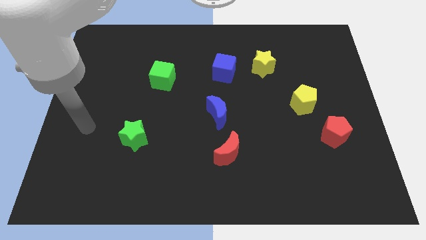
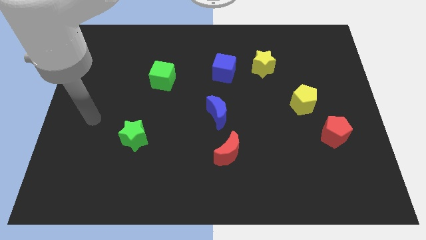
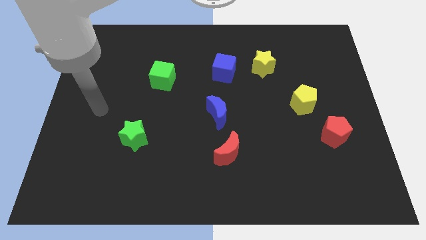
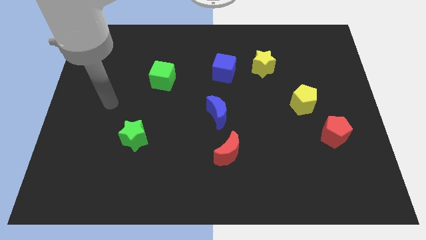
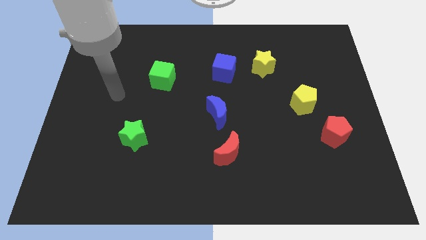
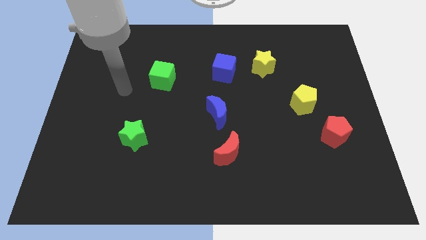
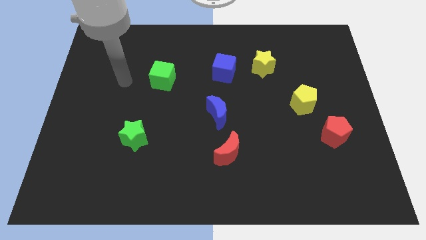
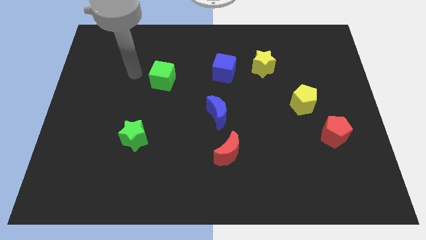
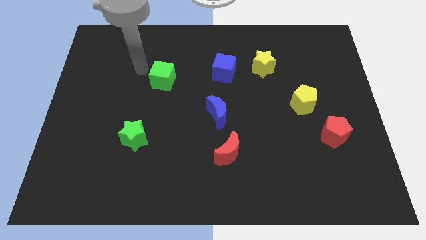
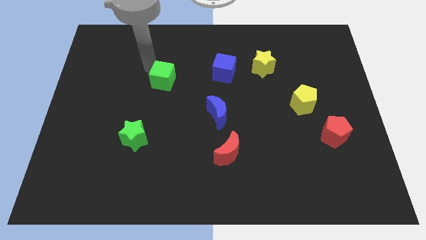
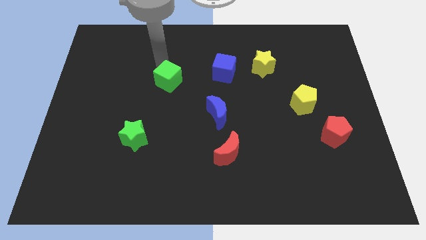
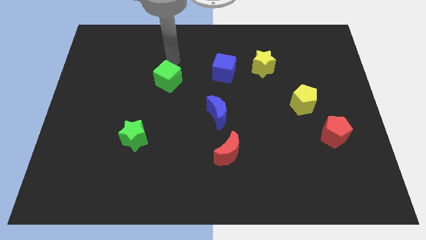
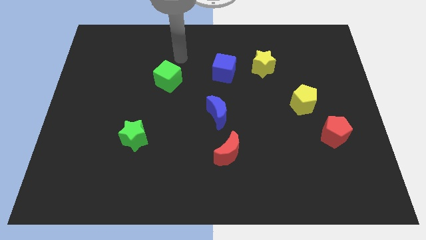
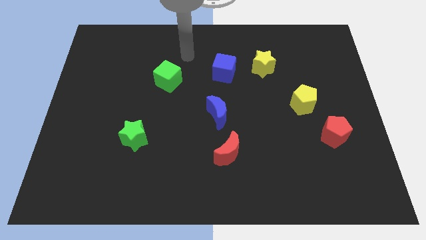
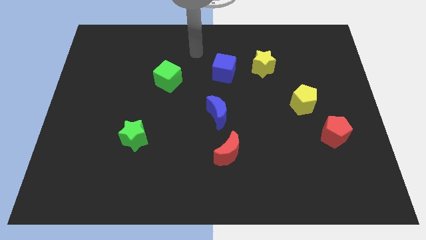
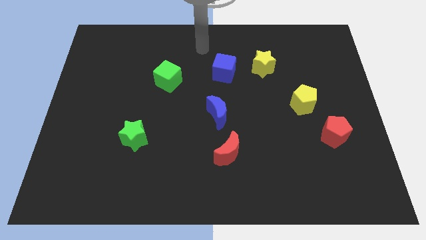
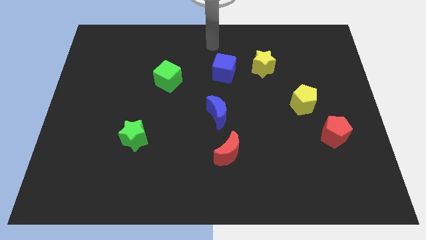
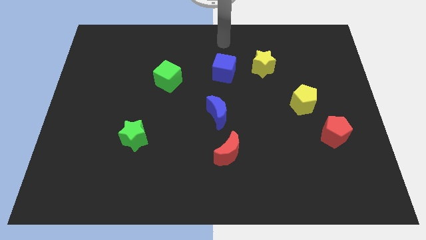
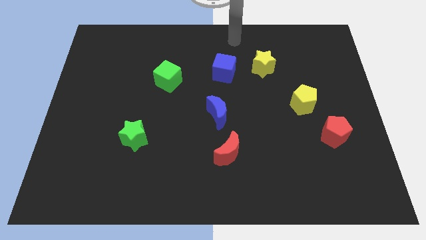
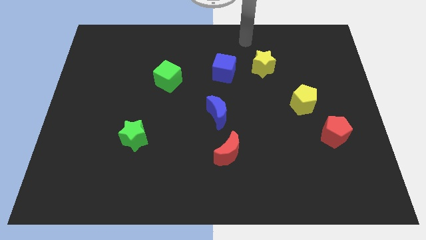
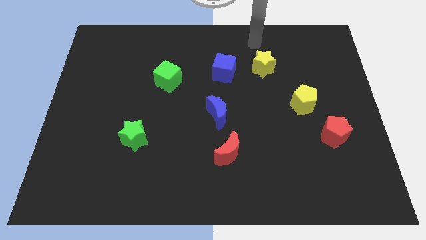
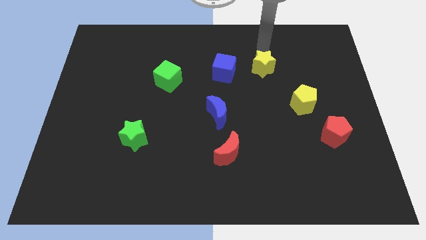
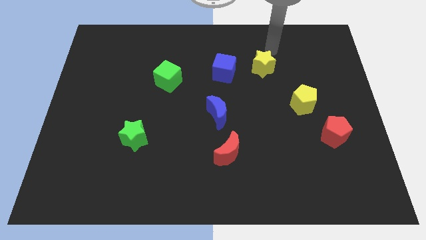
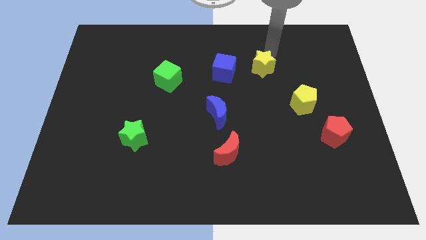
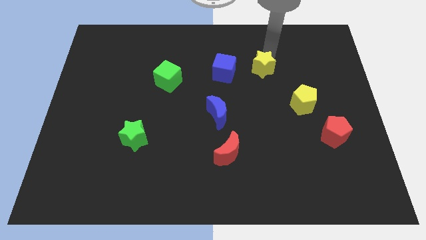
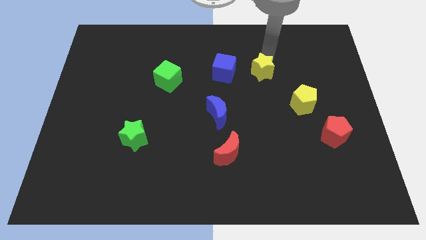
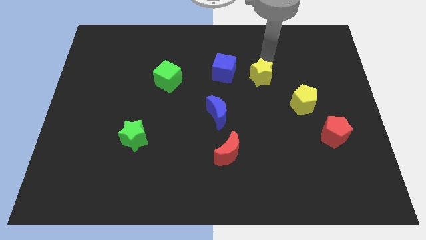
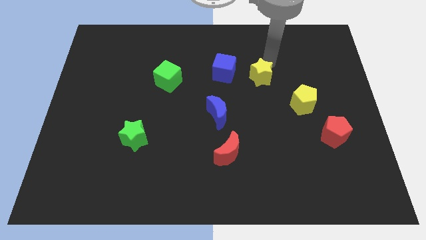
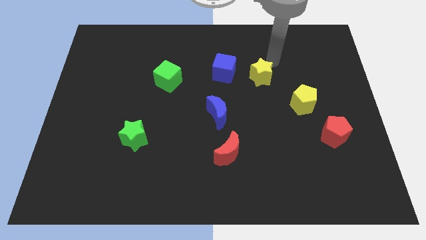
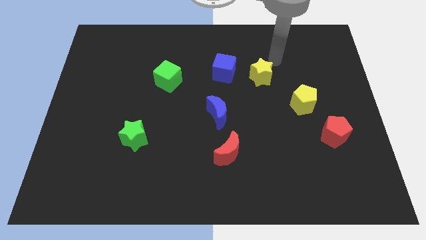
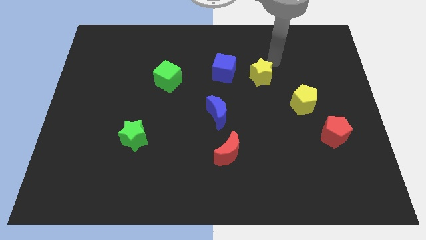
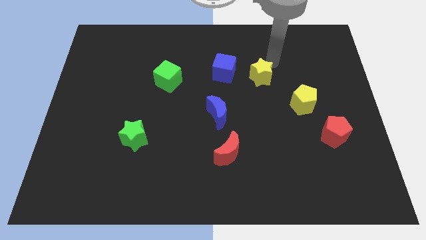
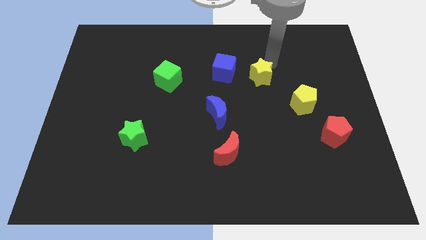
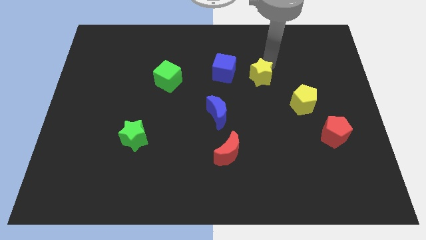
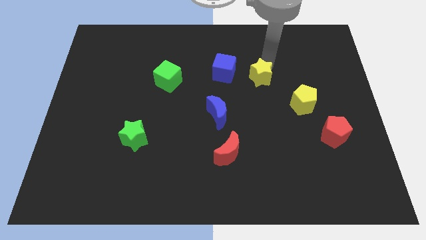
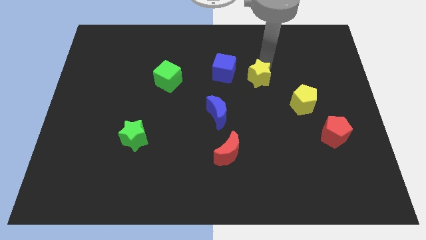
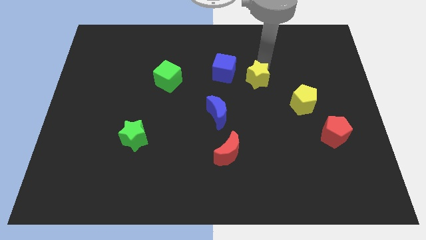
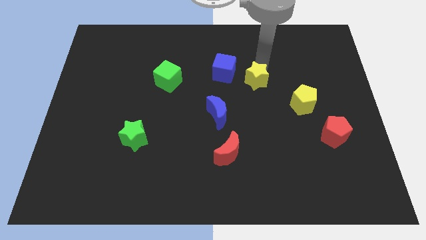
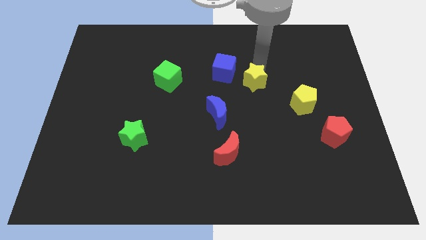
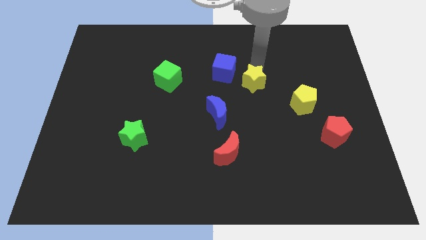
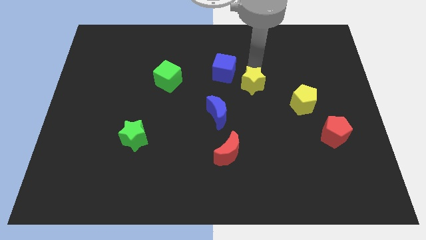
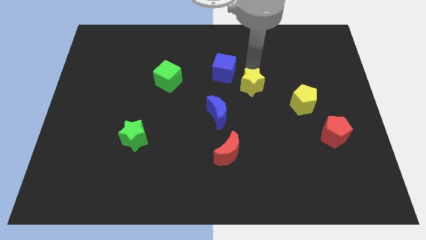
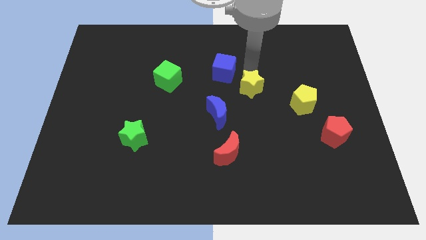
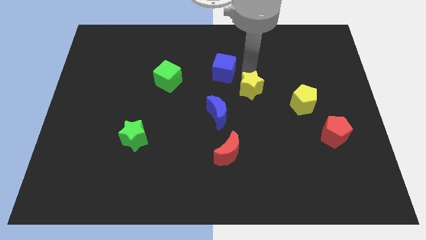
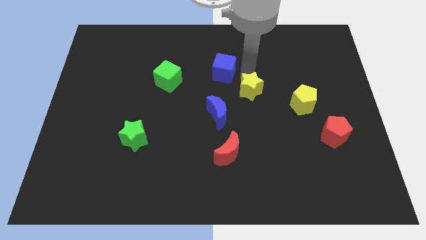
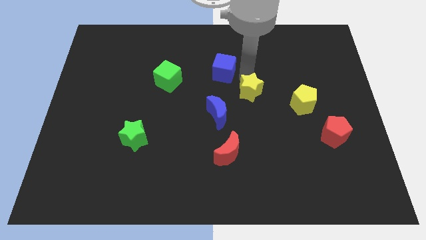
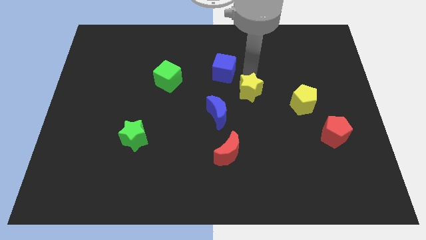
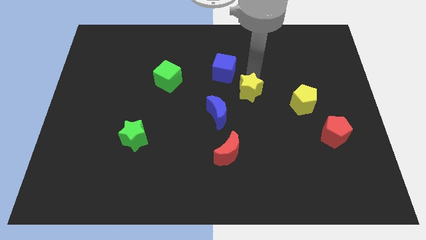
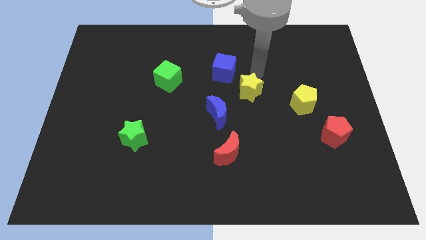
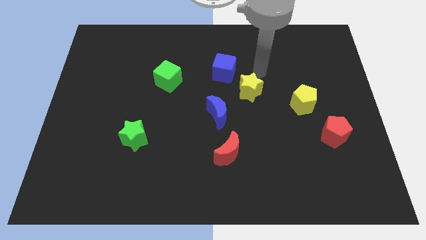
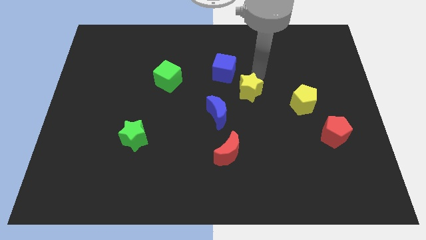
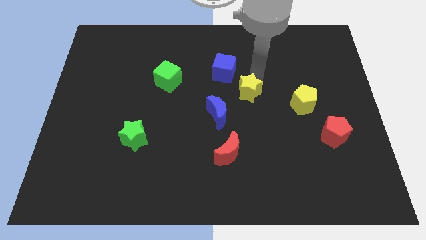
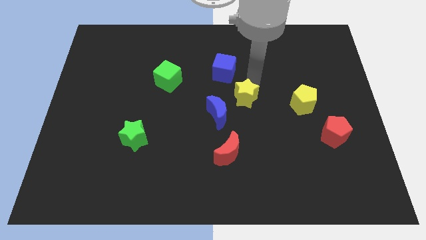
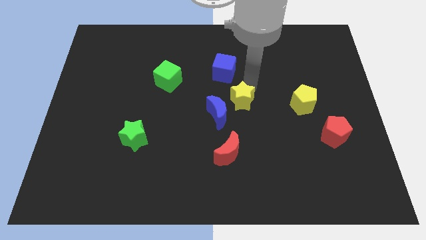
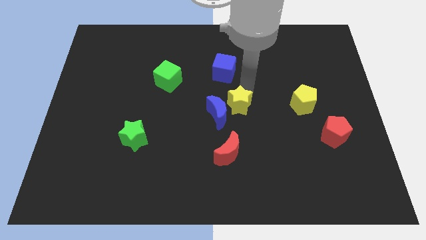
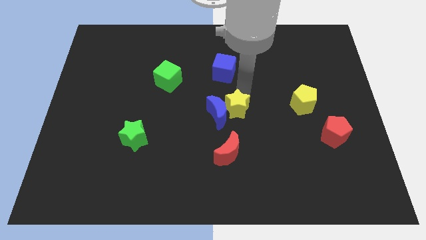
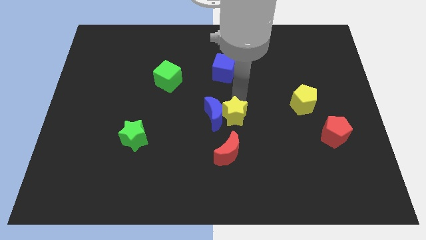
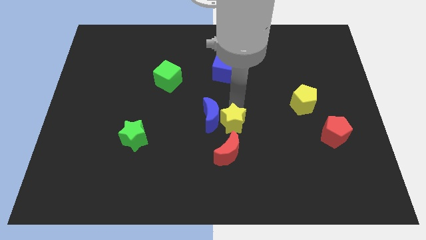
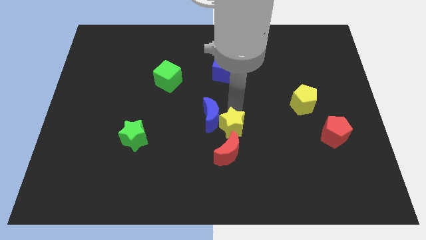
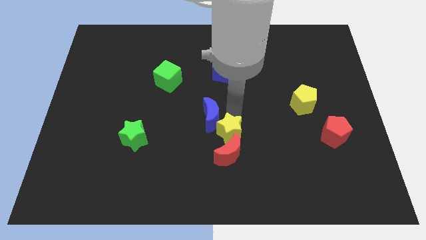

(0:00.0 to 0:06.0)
push the yellow star close to the red moon

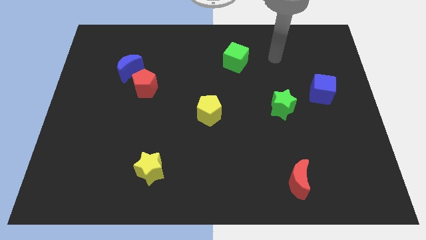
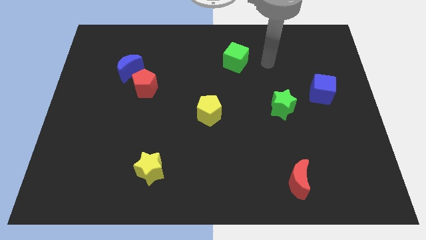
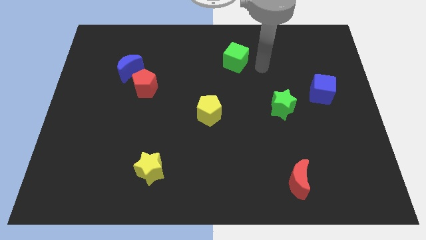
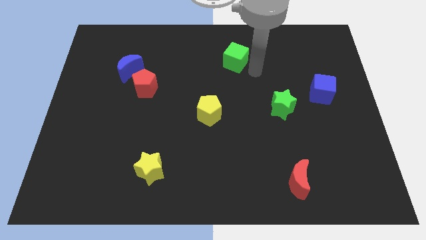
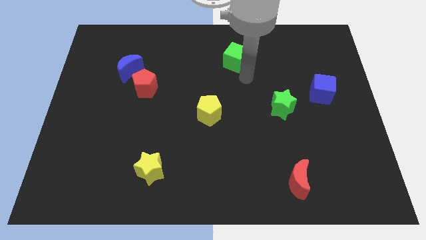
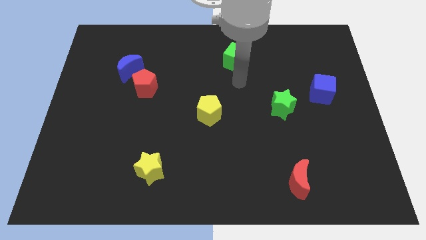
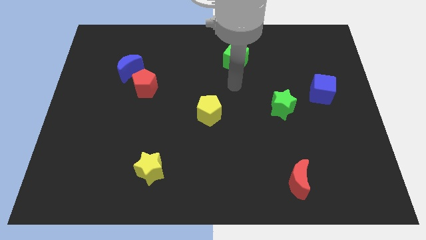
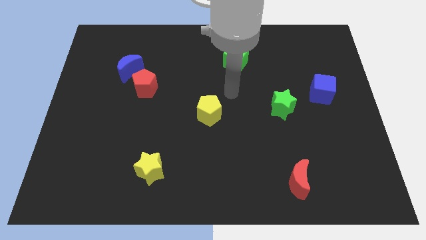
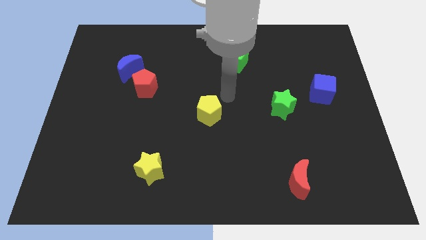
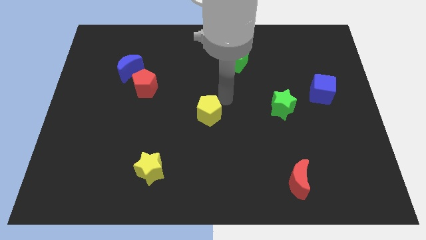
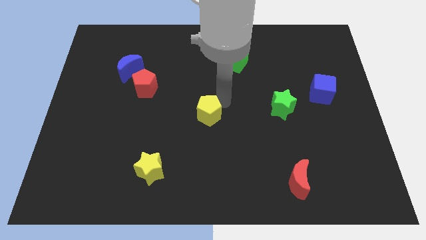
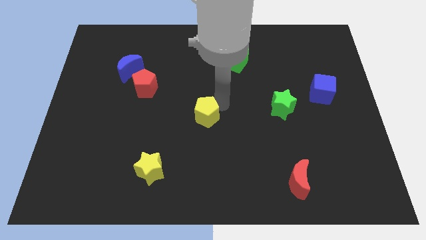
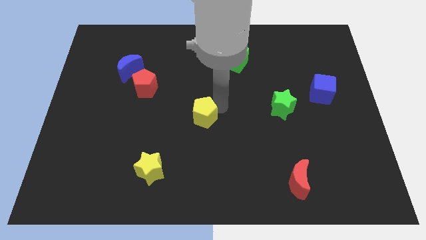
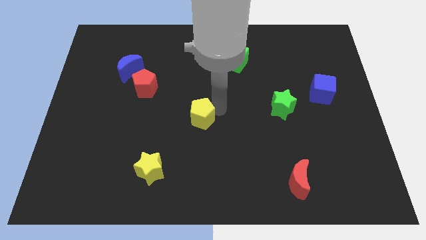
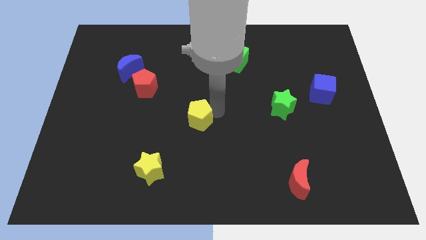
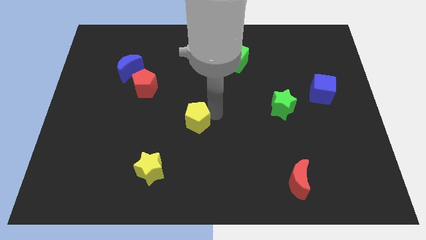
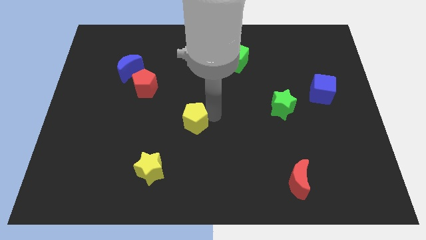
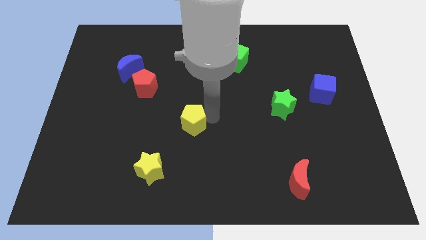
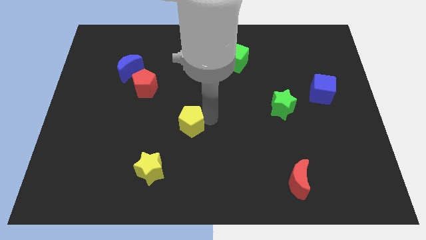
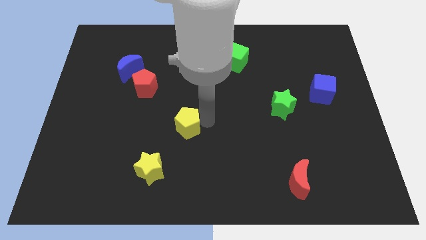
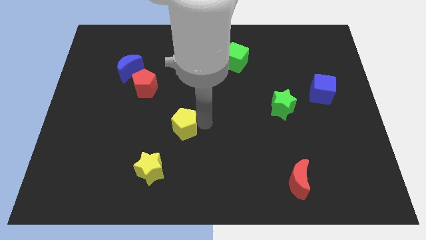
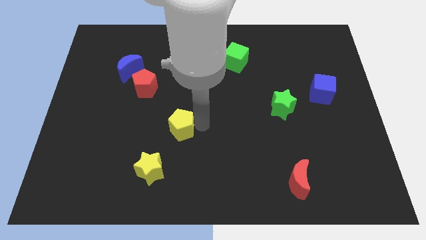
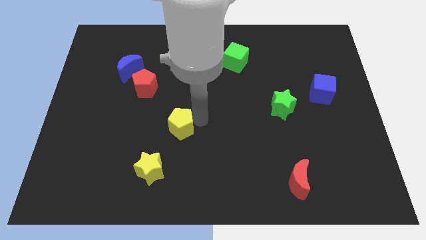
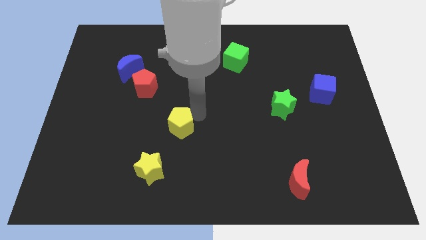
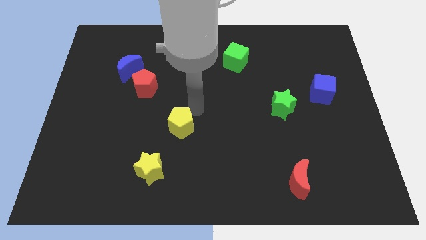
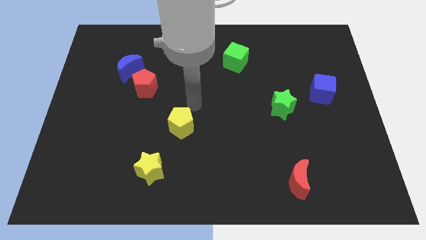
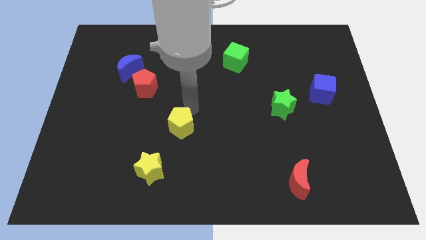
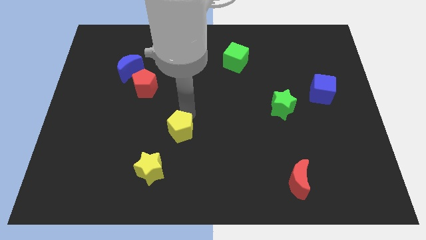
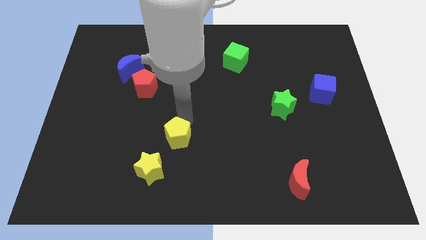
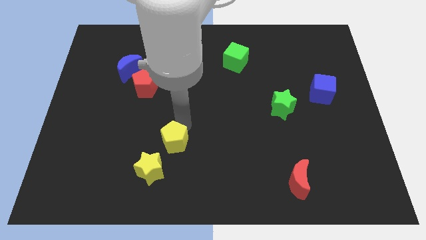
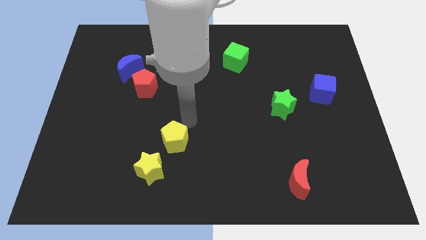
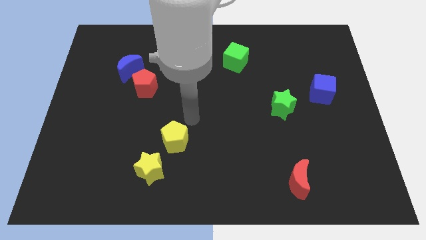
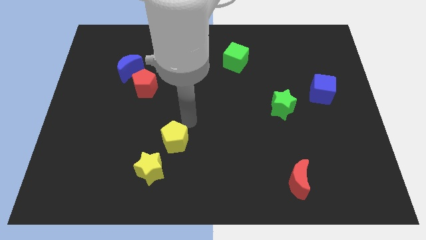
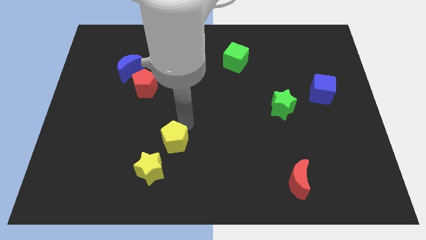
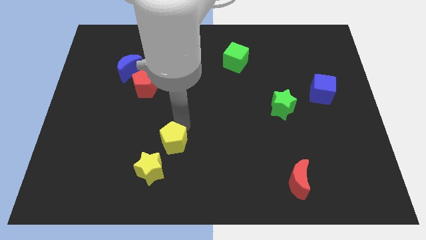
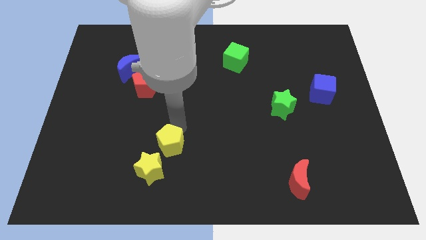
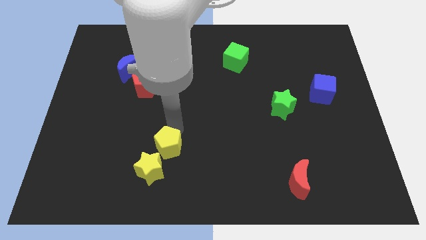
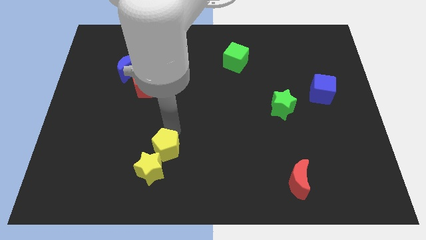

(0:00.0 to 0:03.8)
slide the yellow pentagon next to the yellow star
